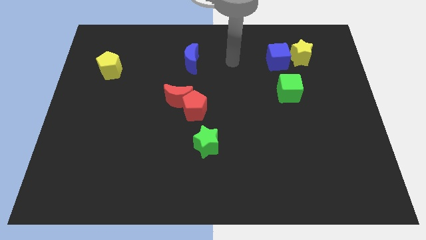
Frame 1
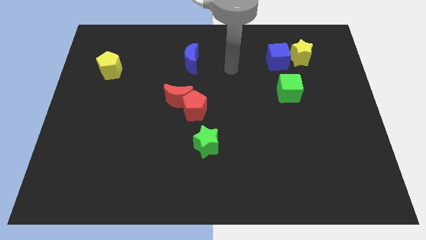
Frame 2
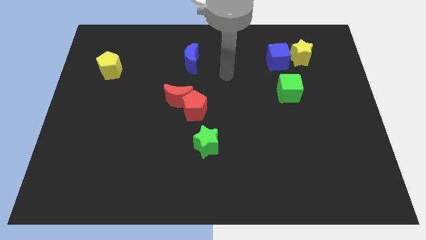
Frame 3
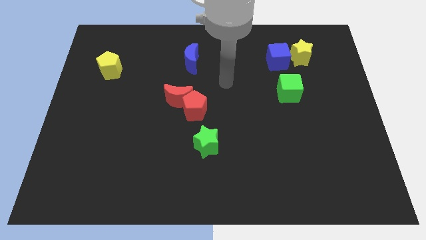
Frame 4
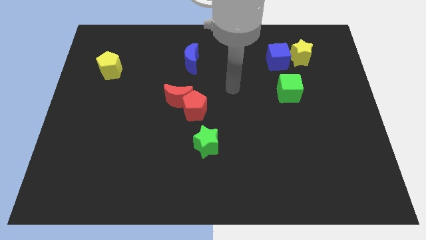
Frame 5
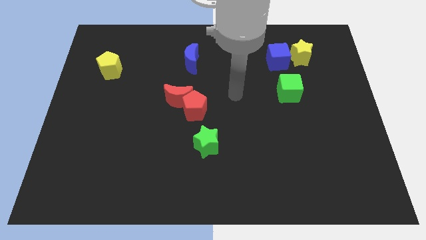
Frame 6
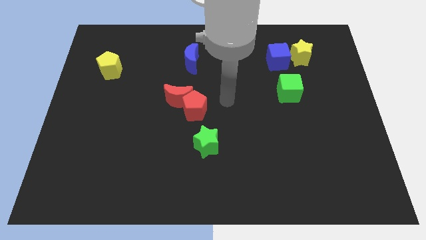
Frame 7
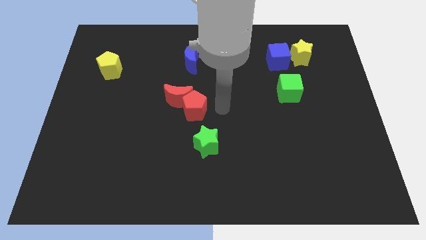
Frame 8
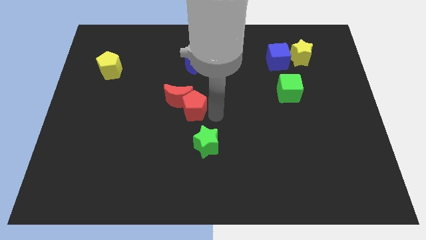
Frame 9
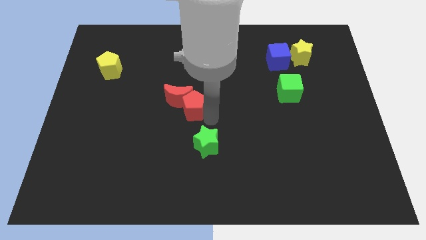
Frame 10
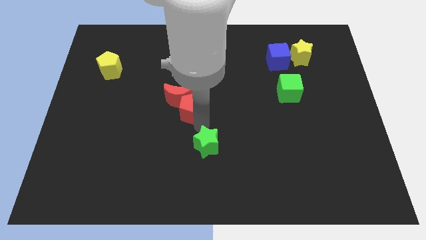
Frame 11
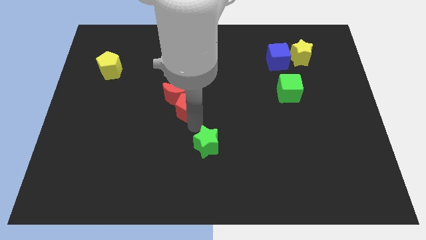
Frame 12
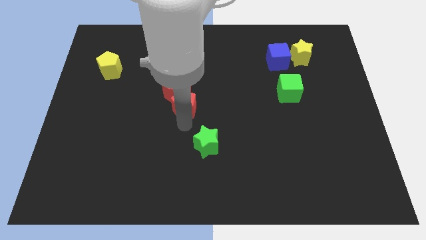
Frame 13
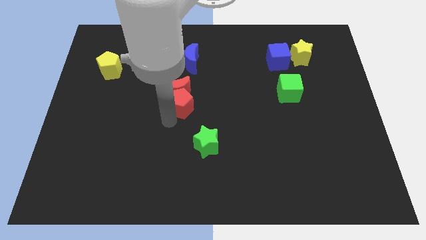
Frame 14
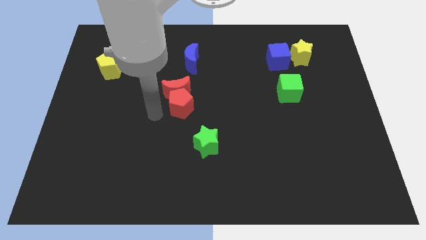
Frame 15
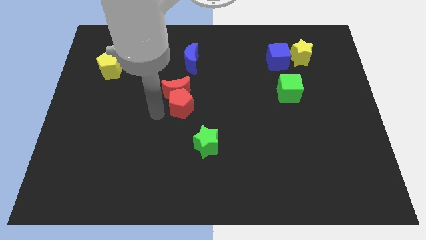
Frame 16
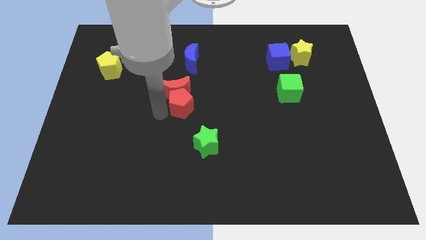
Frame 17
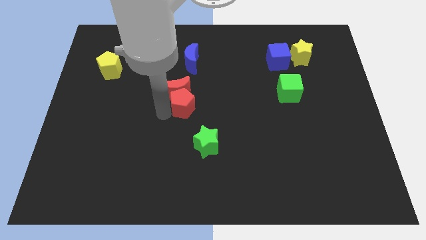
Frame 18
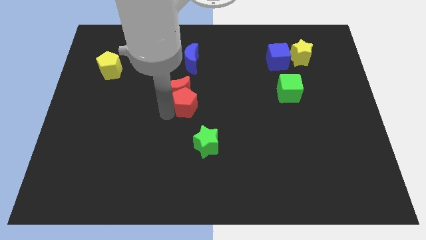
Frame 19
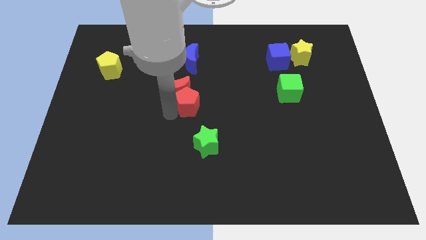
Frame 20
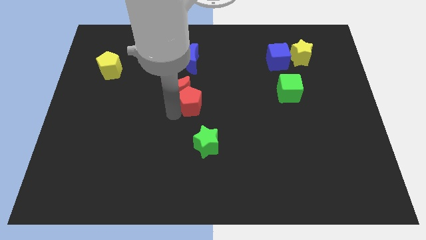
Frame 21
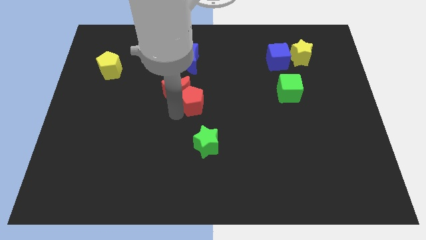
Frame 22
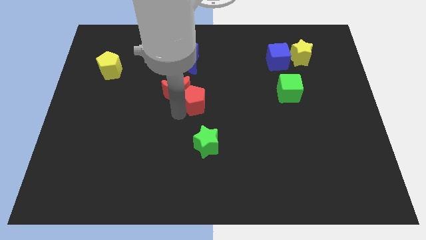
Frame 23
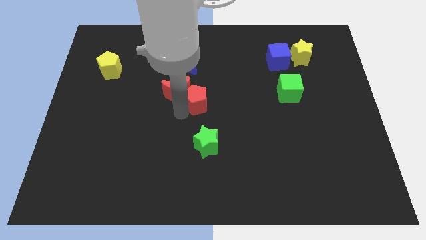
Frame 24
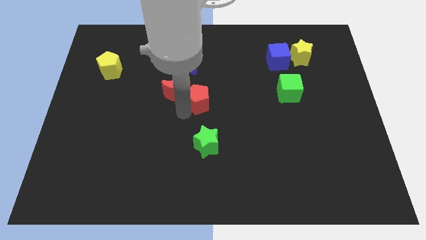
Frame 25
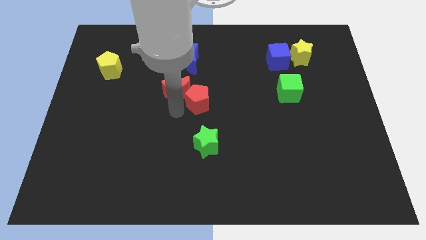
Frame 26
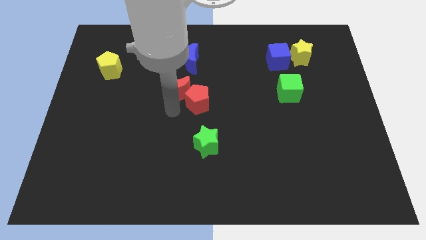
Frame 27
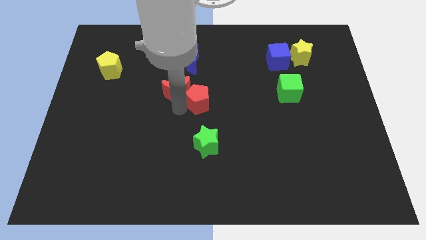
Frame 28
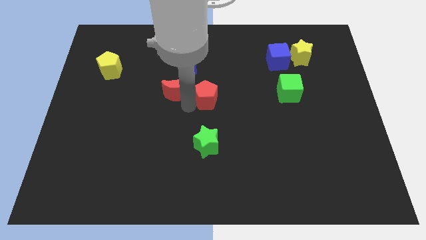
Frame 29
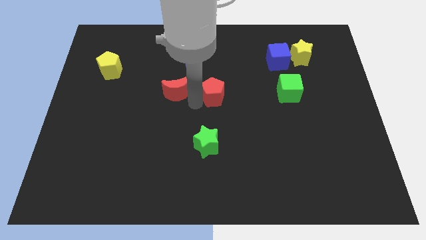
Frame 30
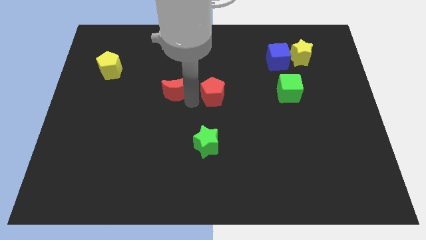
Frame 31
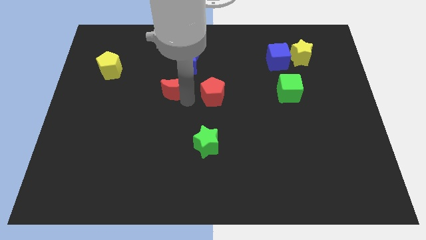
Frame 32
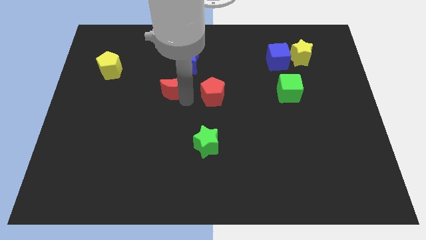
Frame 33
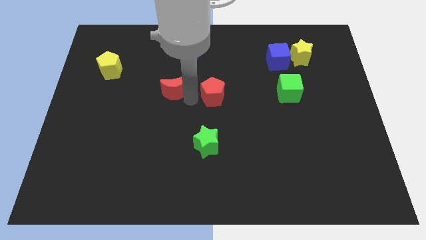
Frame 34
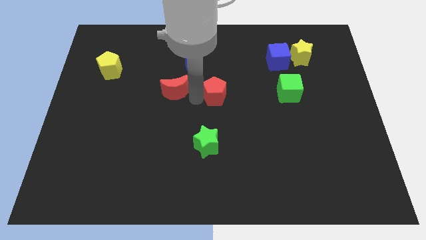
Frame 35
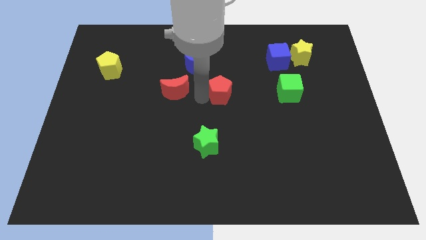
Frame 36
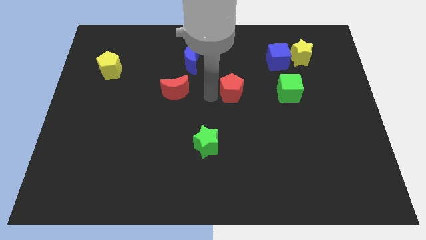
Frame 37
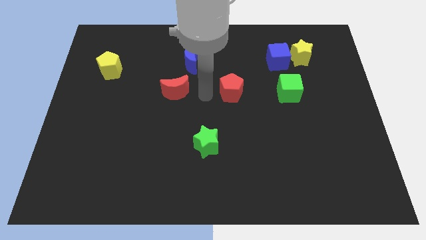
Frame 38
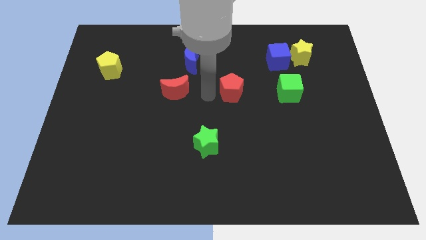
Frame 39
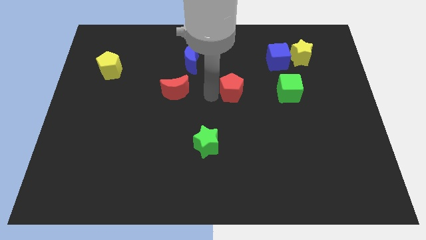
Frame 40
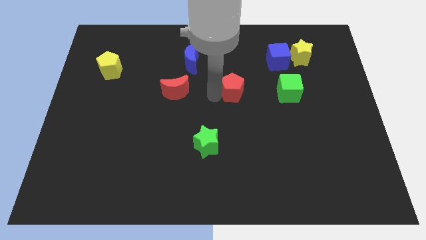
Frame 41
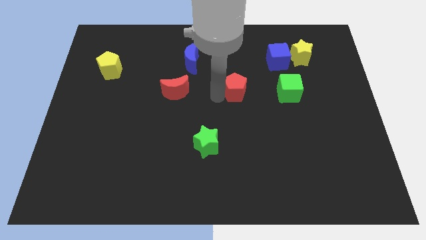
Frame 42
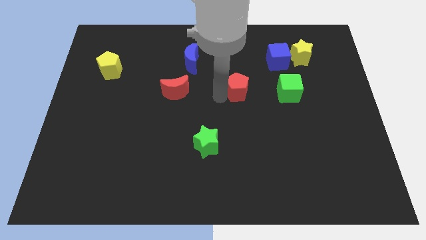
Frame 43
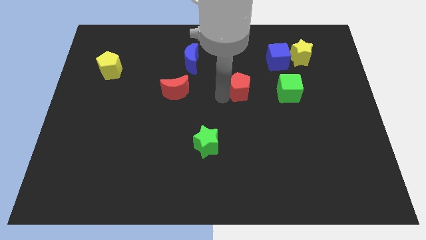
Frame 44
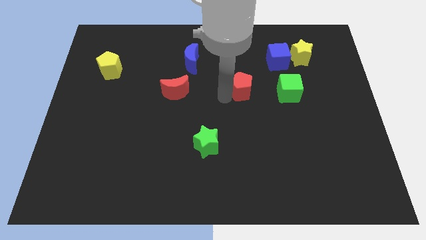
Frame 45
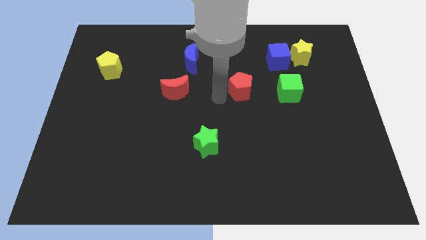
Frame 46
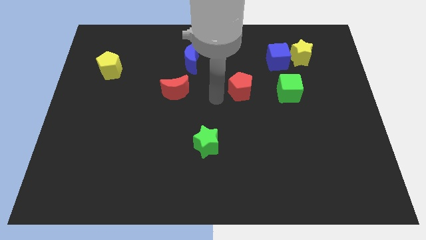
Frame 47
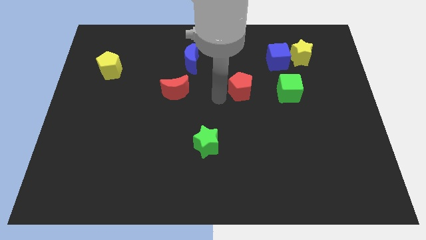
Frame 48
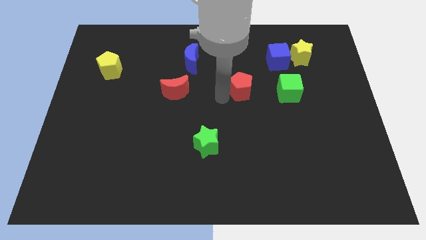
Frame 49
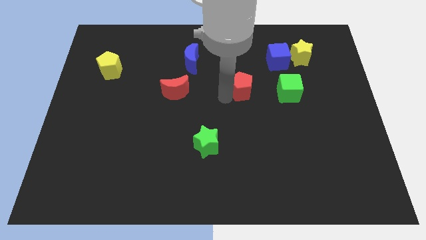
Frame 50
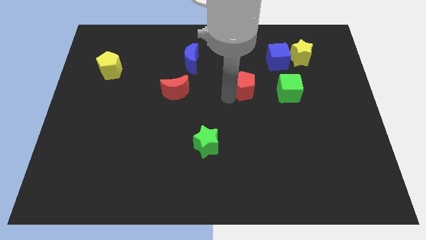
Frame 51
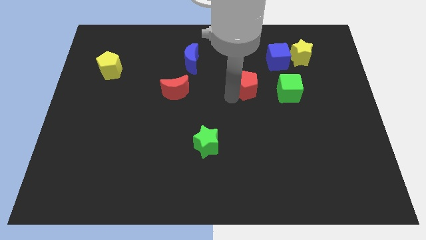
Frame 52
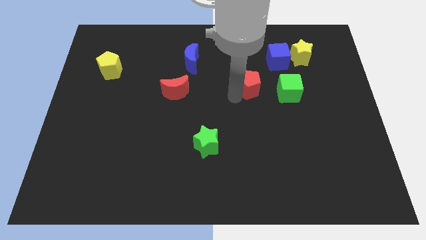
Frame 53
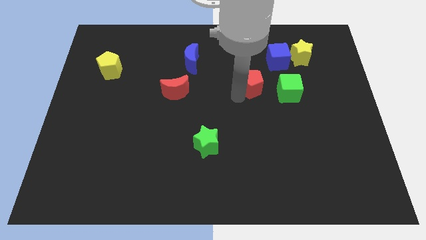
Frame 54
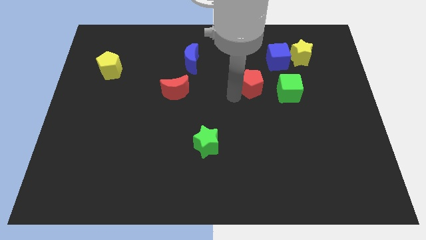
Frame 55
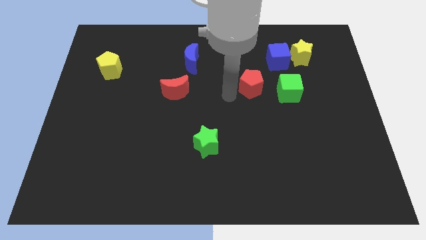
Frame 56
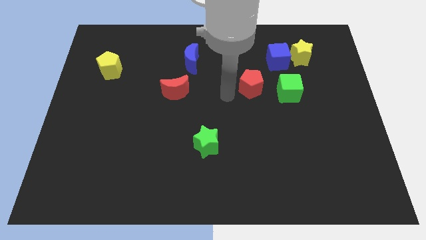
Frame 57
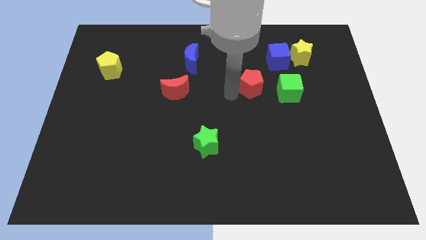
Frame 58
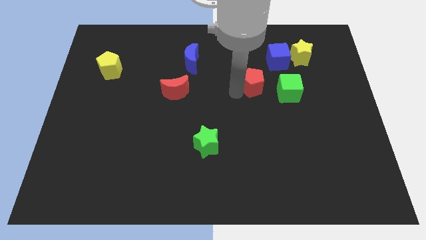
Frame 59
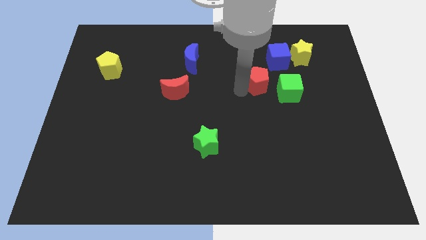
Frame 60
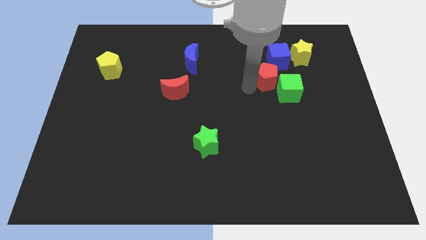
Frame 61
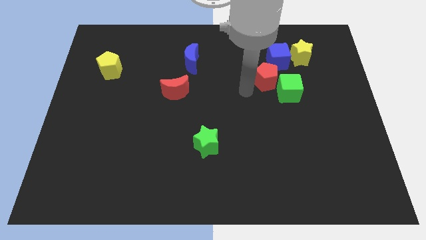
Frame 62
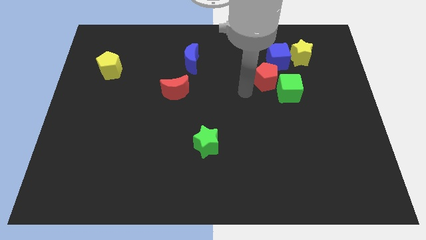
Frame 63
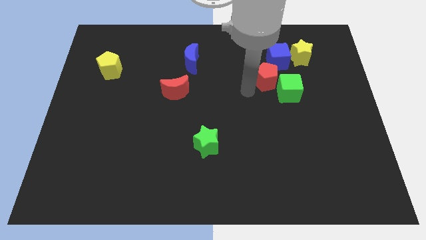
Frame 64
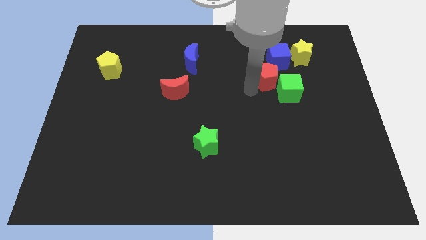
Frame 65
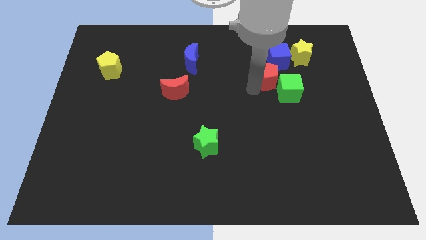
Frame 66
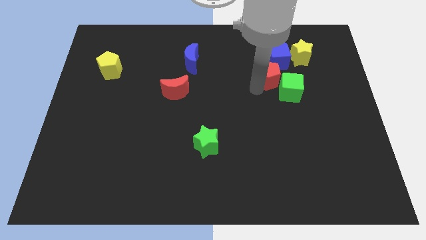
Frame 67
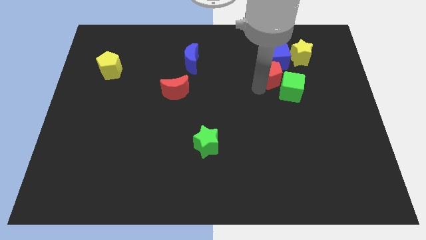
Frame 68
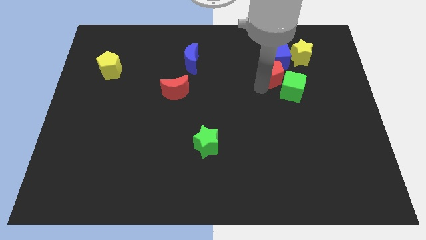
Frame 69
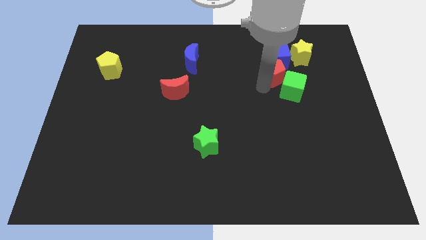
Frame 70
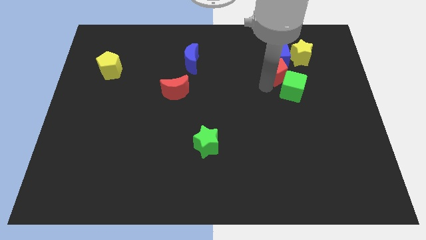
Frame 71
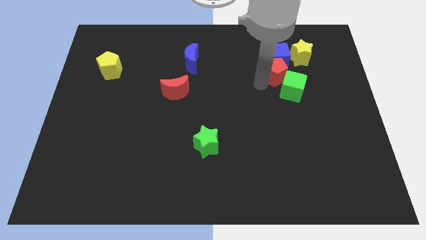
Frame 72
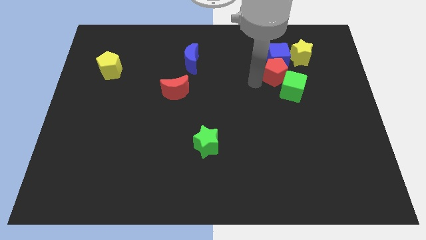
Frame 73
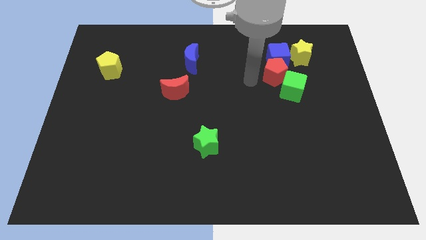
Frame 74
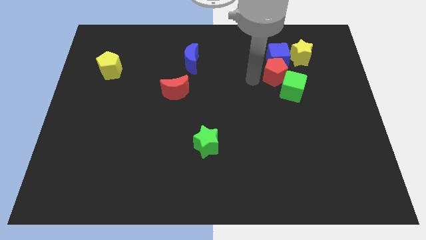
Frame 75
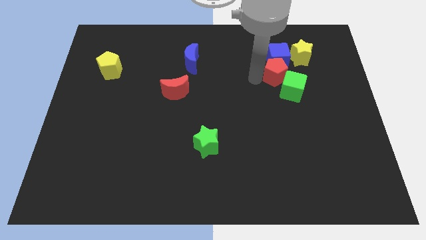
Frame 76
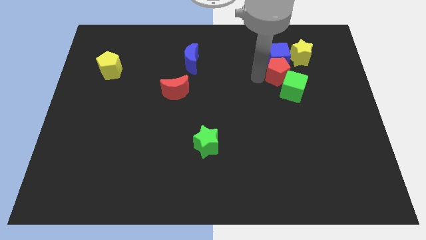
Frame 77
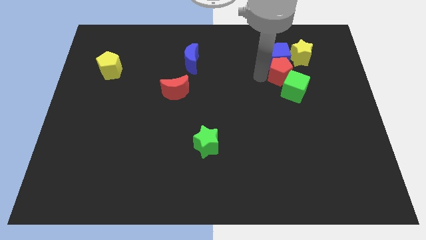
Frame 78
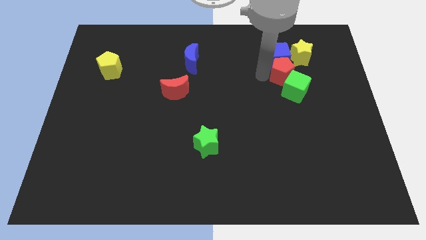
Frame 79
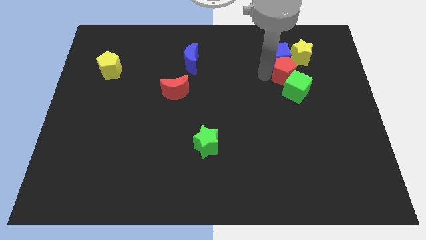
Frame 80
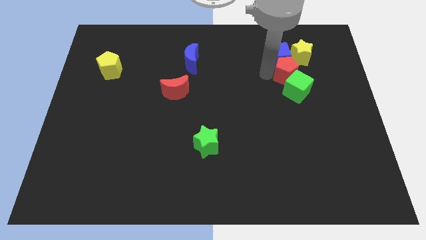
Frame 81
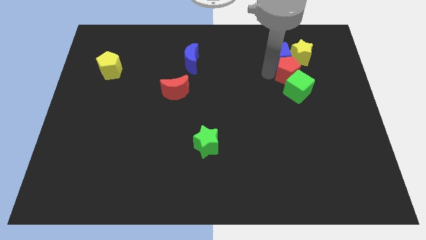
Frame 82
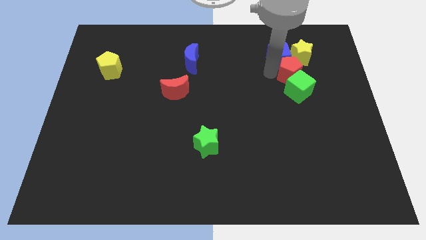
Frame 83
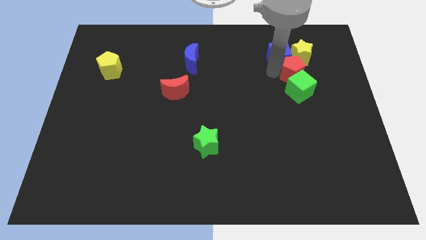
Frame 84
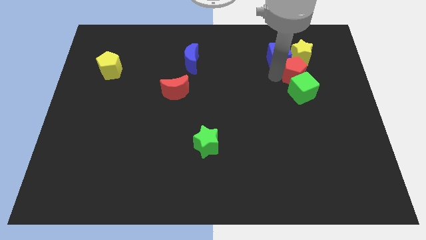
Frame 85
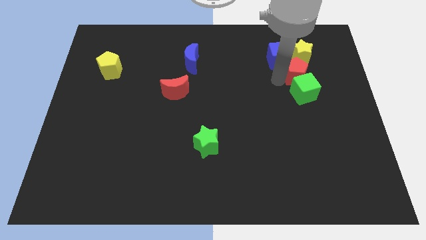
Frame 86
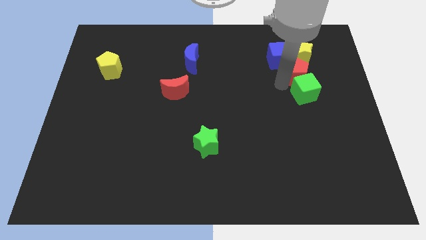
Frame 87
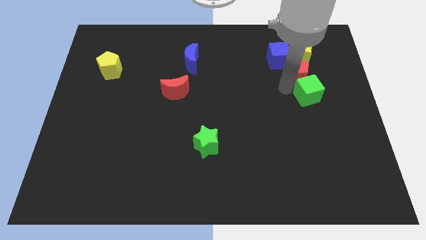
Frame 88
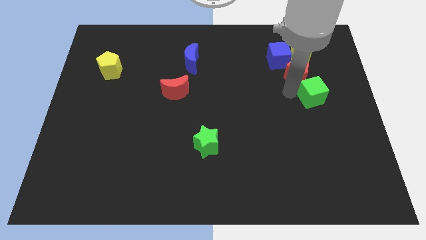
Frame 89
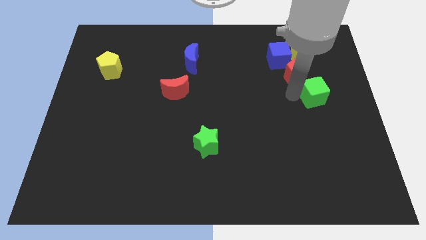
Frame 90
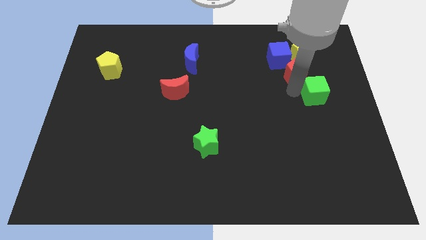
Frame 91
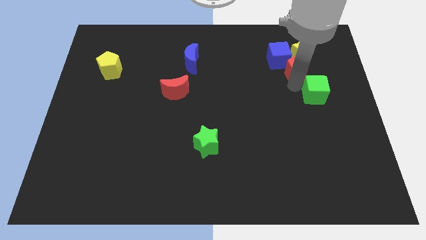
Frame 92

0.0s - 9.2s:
slide the red pentagon next to the yellow star
